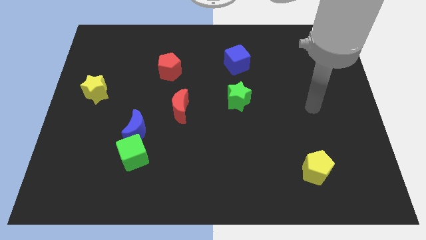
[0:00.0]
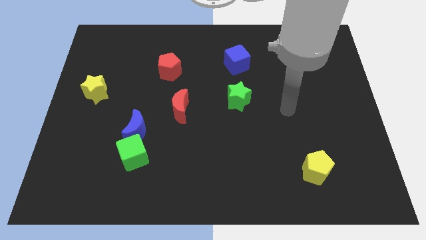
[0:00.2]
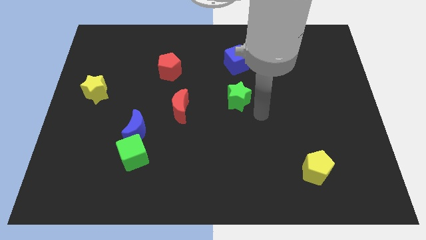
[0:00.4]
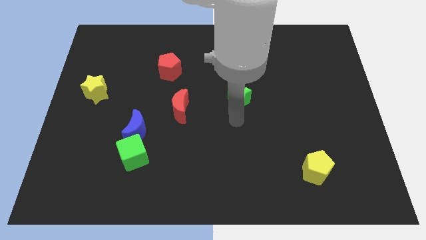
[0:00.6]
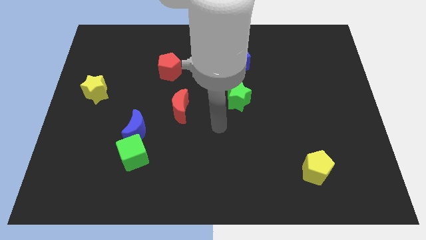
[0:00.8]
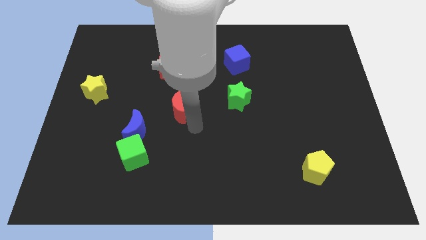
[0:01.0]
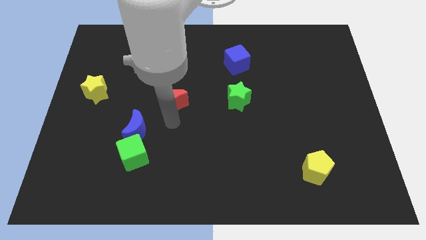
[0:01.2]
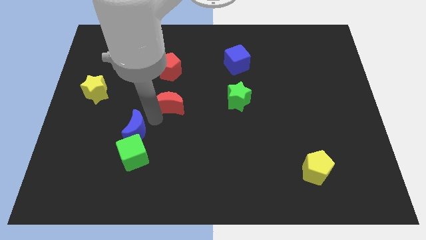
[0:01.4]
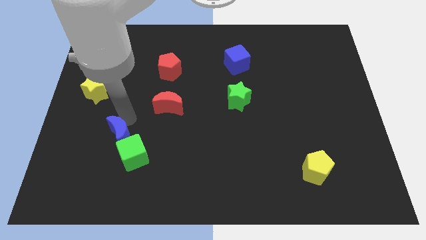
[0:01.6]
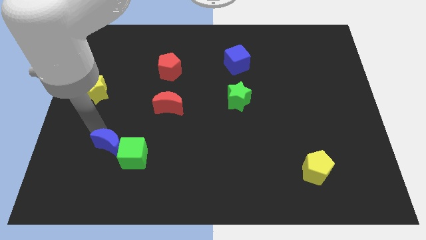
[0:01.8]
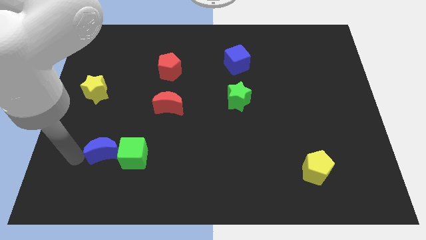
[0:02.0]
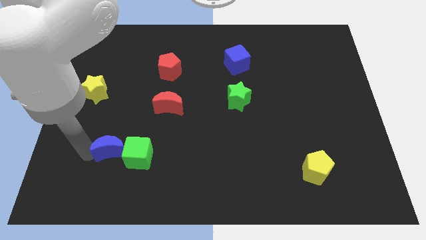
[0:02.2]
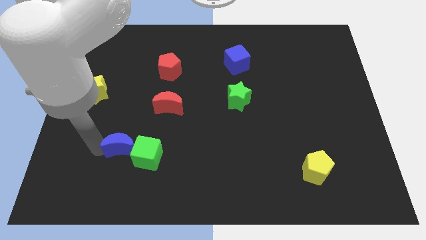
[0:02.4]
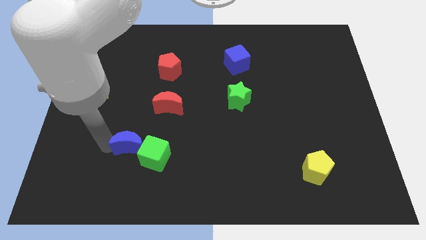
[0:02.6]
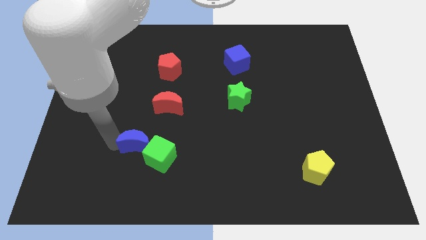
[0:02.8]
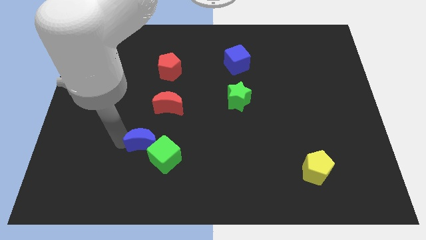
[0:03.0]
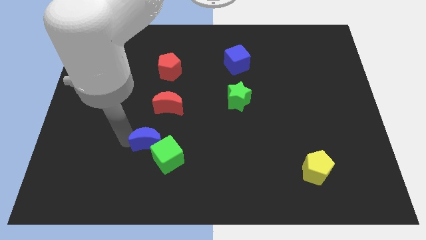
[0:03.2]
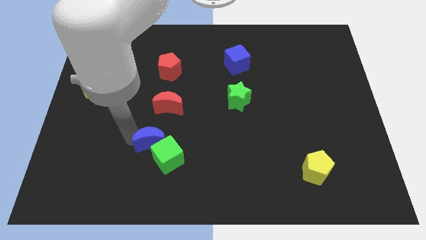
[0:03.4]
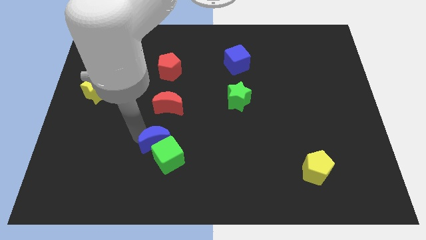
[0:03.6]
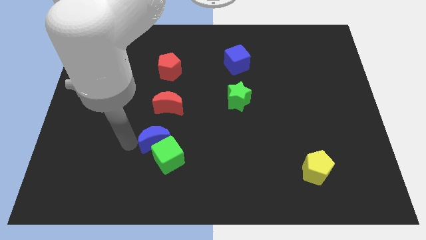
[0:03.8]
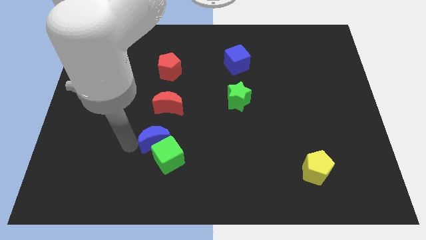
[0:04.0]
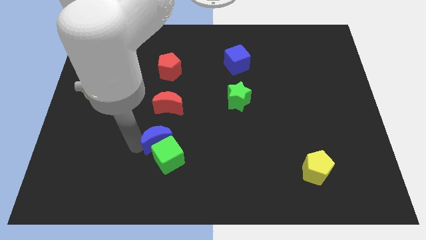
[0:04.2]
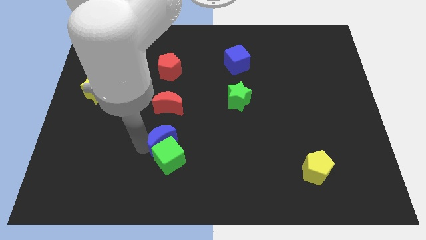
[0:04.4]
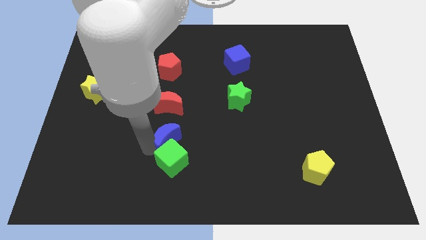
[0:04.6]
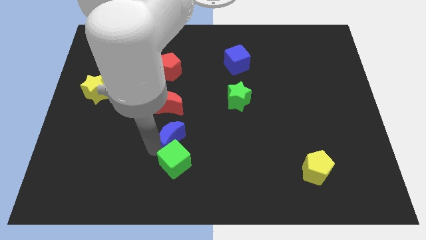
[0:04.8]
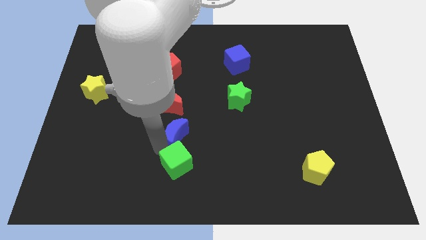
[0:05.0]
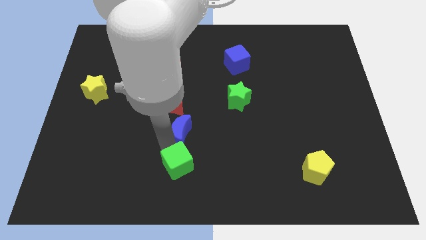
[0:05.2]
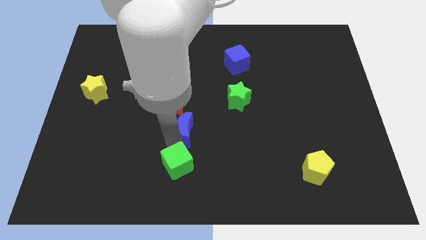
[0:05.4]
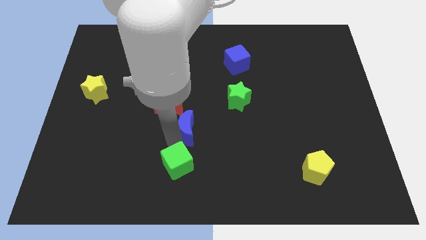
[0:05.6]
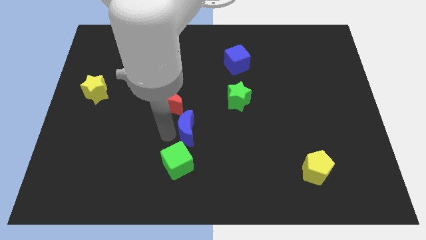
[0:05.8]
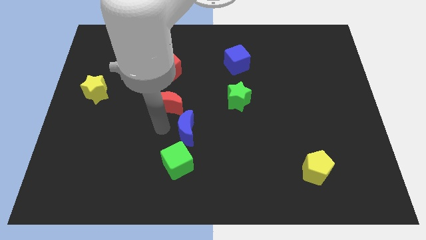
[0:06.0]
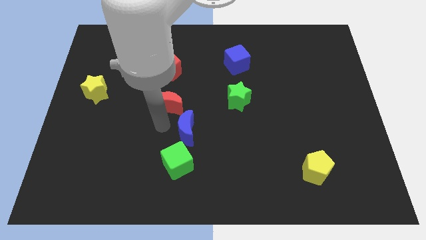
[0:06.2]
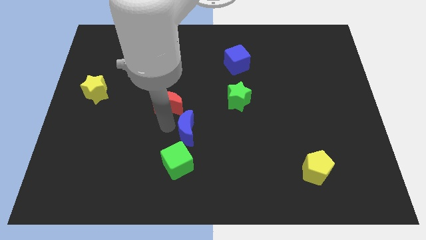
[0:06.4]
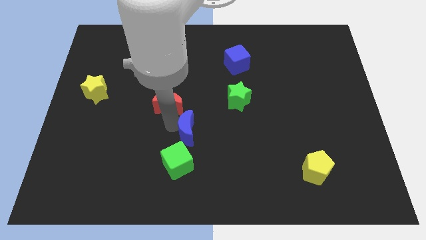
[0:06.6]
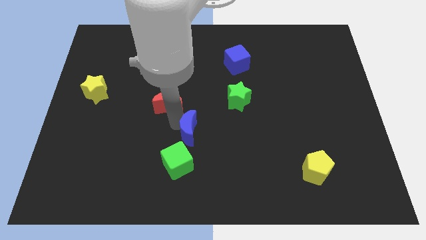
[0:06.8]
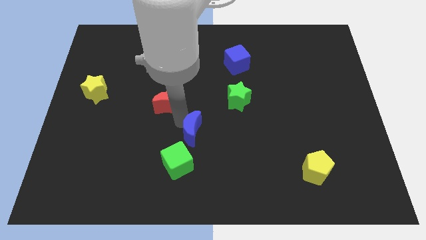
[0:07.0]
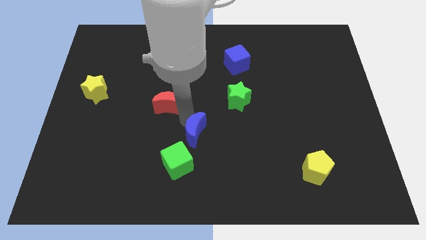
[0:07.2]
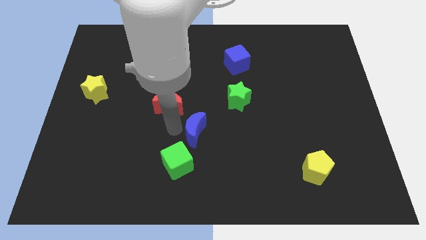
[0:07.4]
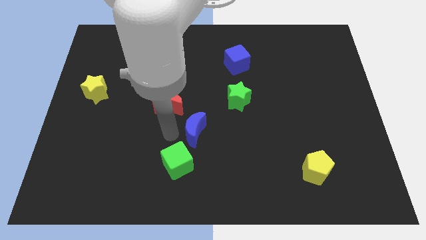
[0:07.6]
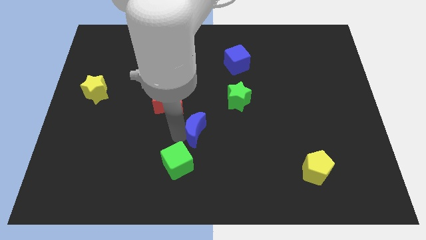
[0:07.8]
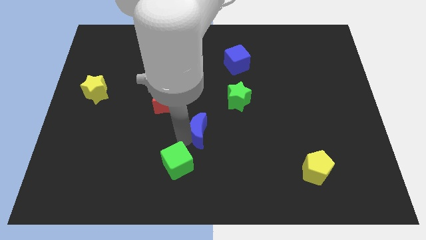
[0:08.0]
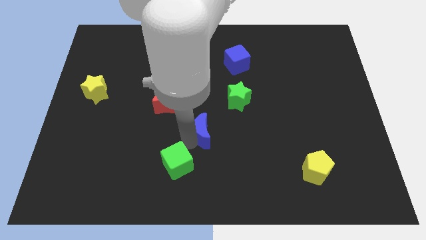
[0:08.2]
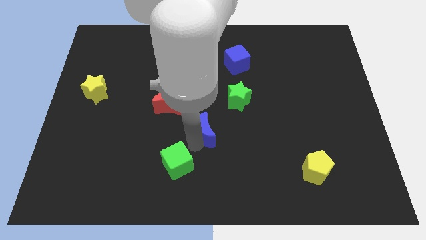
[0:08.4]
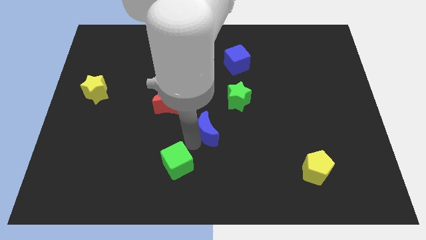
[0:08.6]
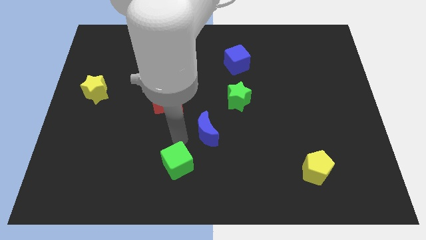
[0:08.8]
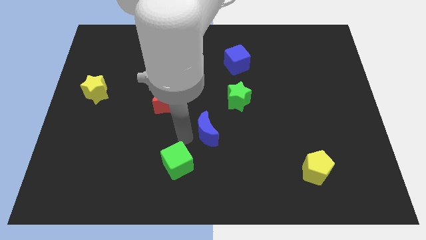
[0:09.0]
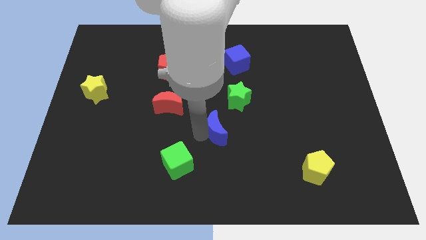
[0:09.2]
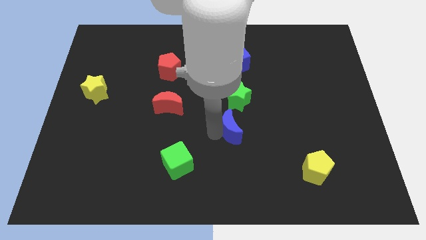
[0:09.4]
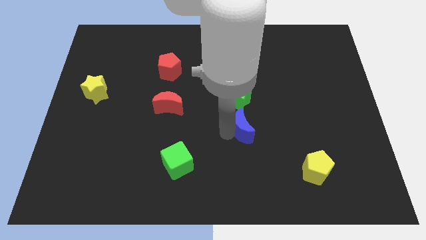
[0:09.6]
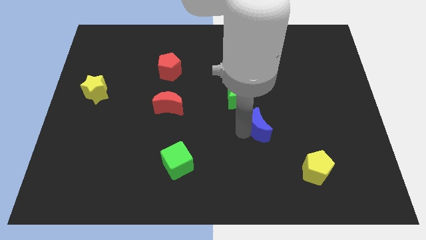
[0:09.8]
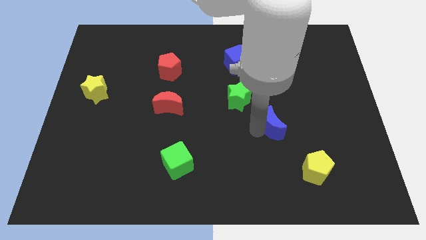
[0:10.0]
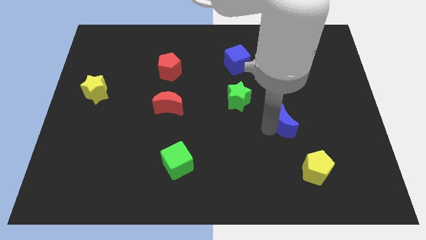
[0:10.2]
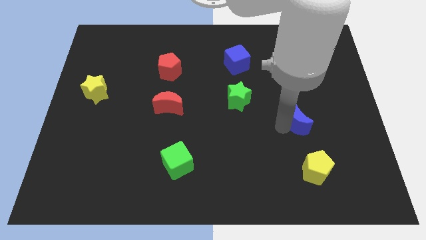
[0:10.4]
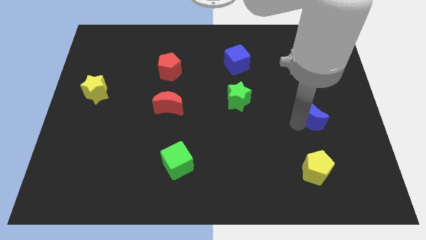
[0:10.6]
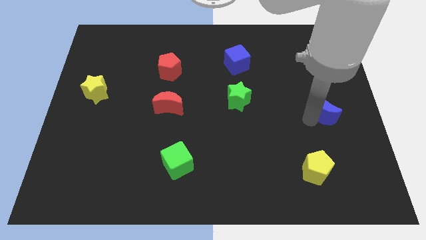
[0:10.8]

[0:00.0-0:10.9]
put the blue moon to the right side of the board

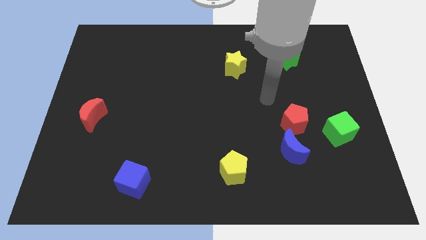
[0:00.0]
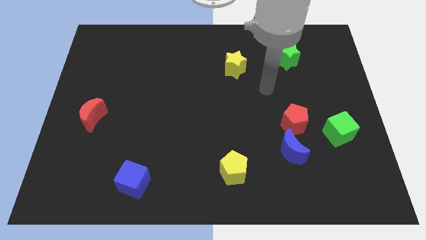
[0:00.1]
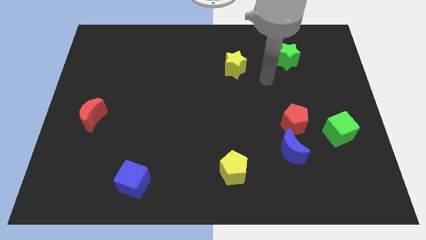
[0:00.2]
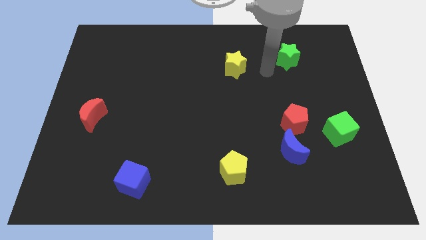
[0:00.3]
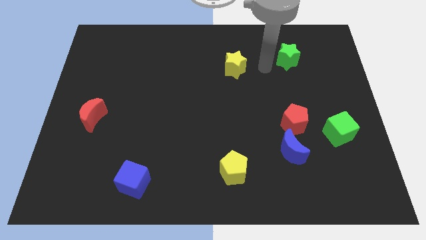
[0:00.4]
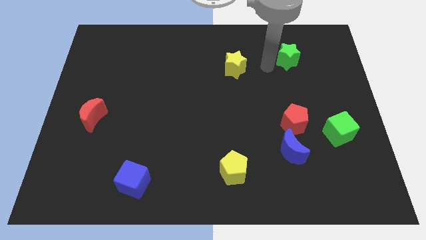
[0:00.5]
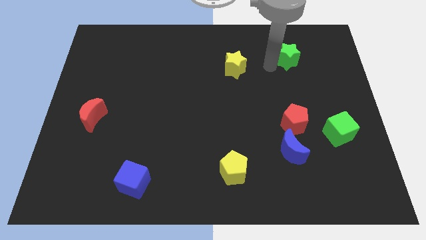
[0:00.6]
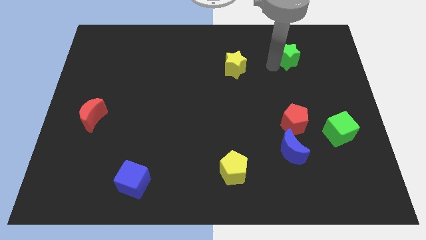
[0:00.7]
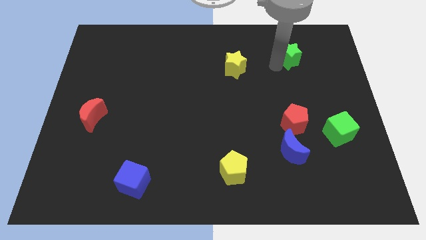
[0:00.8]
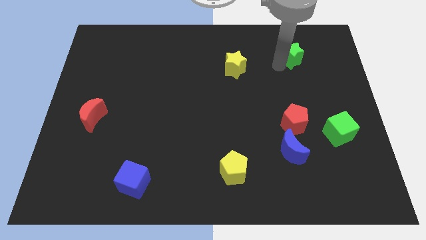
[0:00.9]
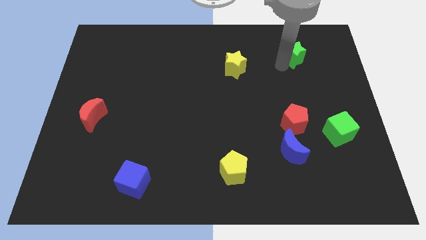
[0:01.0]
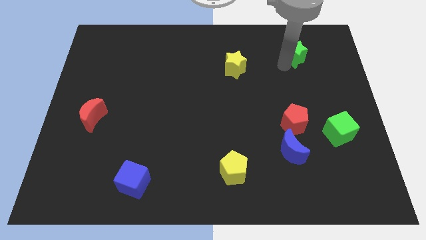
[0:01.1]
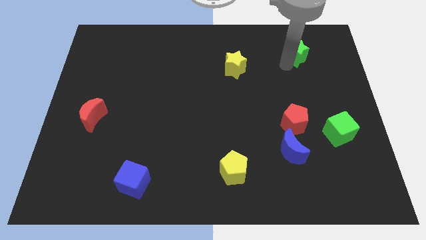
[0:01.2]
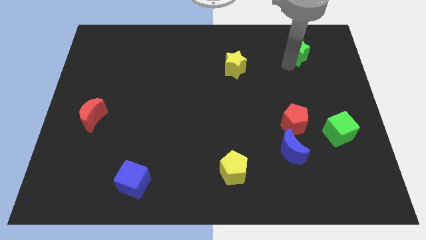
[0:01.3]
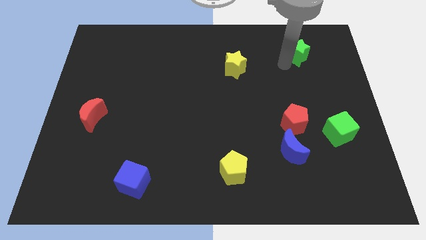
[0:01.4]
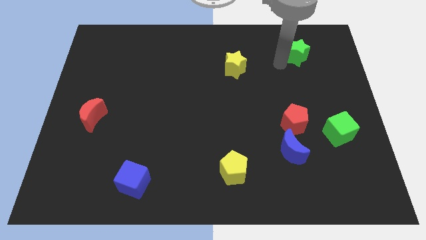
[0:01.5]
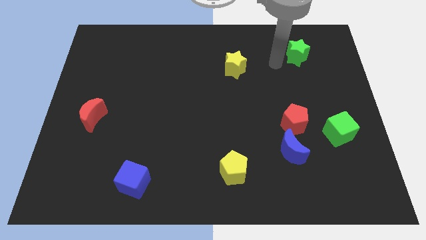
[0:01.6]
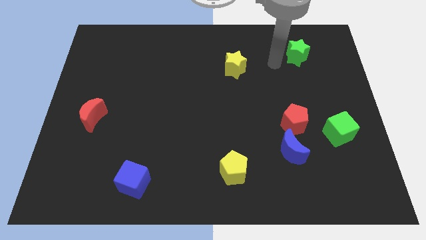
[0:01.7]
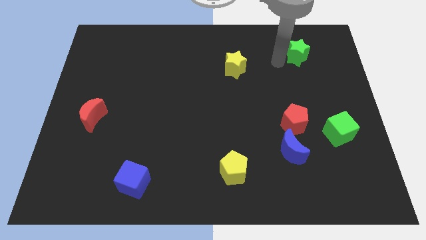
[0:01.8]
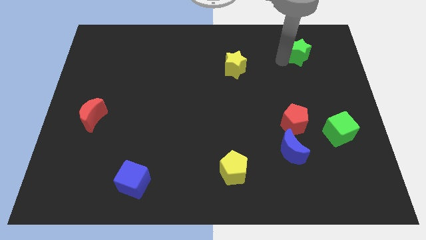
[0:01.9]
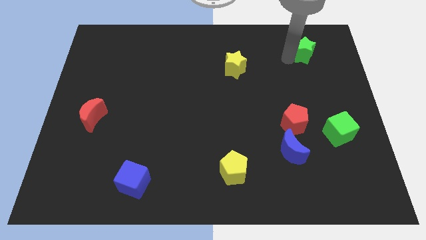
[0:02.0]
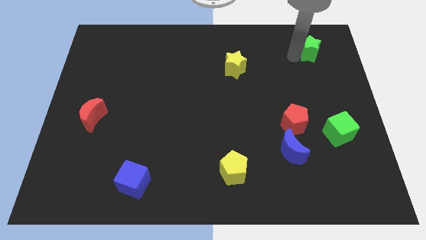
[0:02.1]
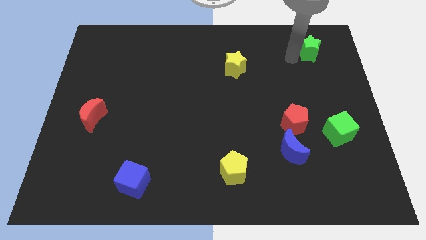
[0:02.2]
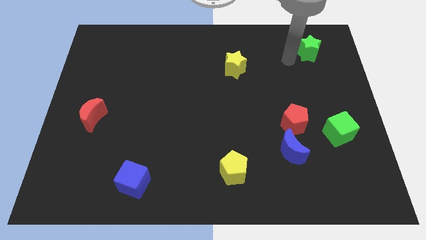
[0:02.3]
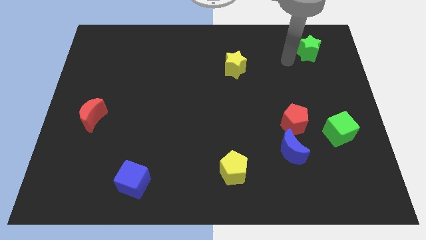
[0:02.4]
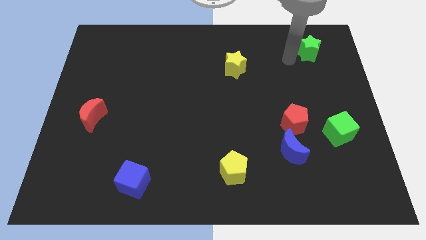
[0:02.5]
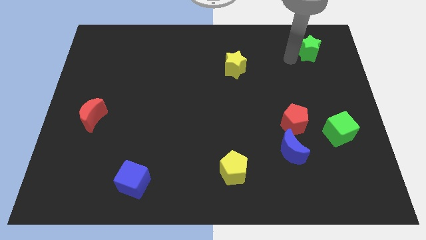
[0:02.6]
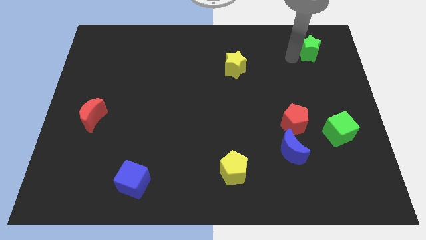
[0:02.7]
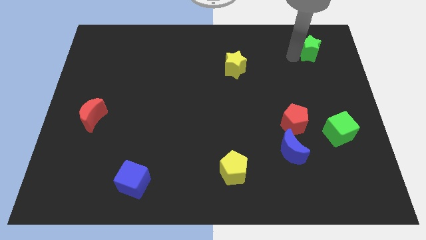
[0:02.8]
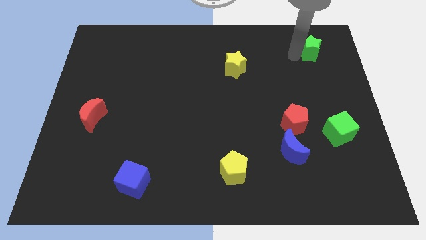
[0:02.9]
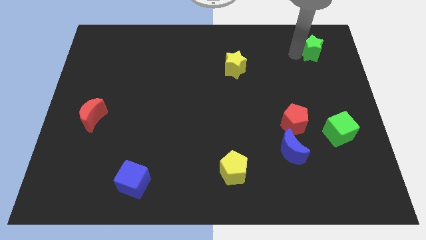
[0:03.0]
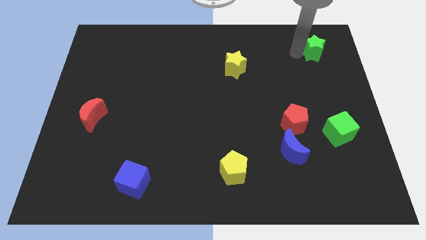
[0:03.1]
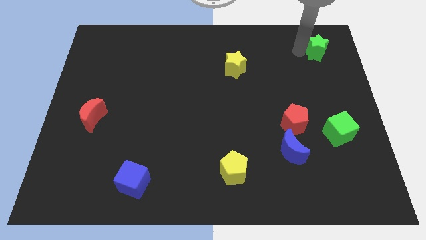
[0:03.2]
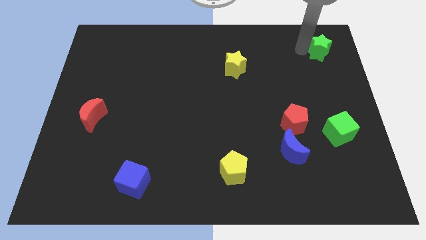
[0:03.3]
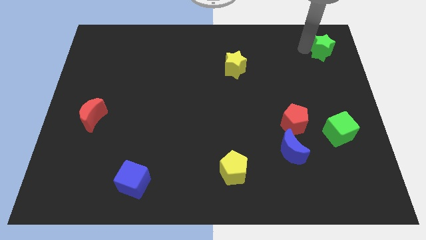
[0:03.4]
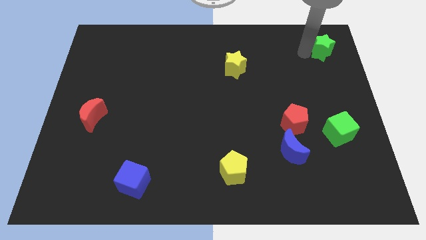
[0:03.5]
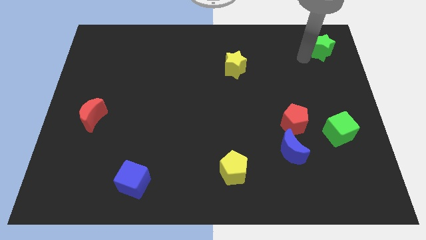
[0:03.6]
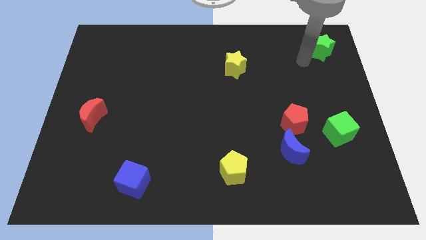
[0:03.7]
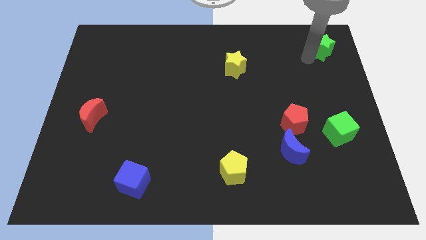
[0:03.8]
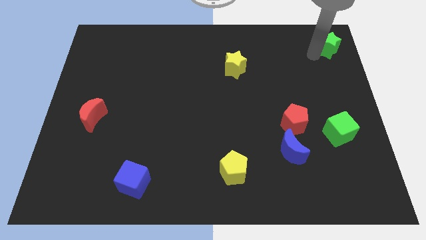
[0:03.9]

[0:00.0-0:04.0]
put the green star to the upper right corner
